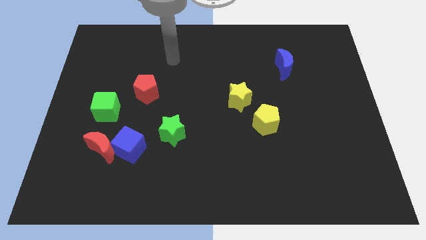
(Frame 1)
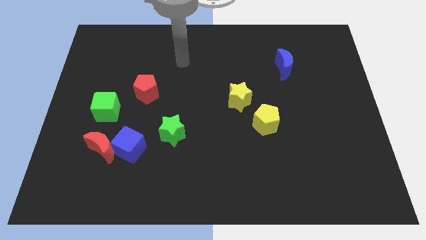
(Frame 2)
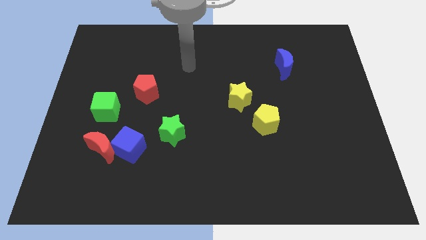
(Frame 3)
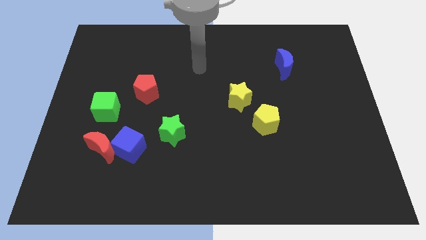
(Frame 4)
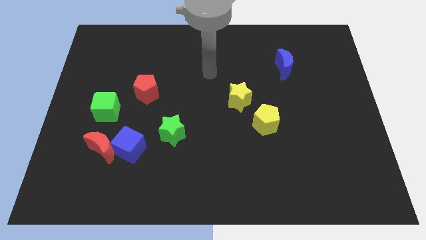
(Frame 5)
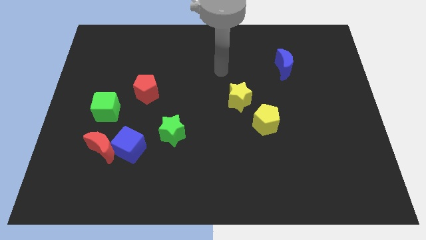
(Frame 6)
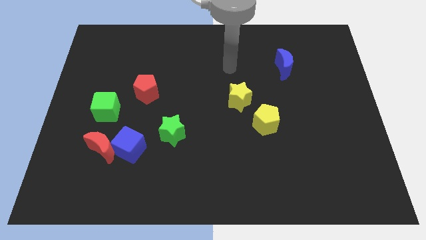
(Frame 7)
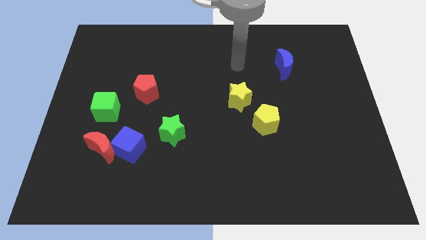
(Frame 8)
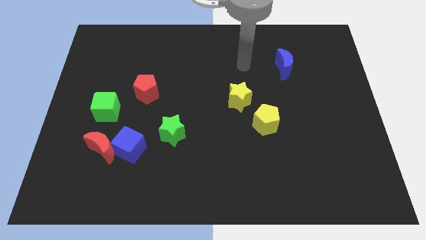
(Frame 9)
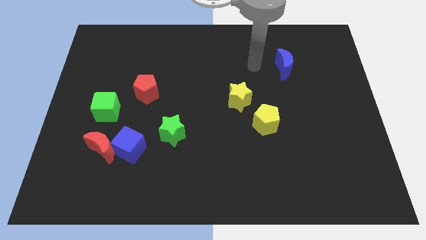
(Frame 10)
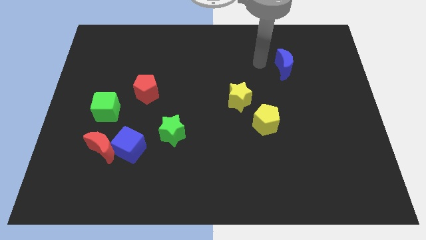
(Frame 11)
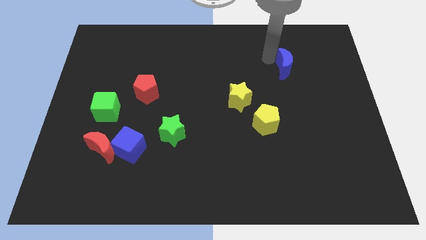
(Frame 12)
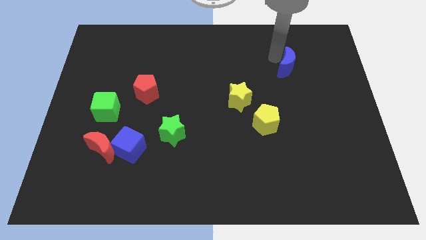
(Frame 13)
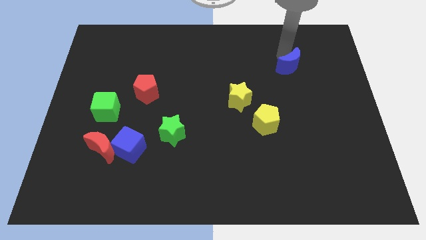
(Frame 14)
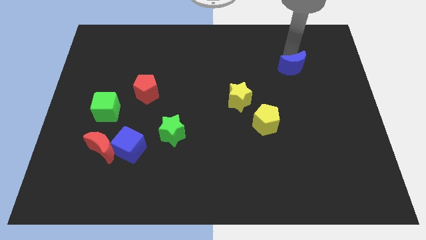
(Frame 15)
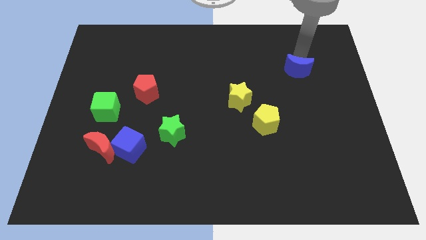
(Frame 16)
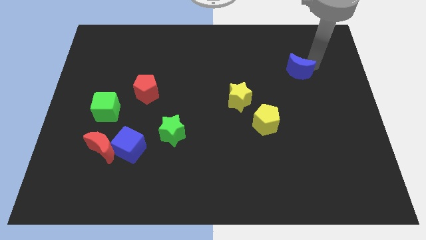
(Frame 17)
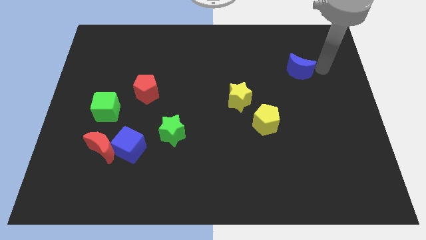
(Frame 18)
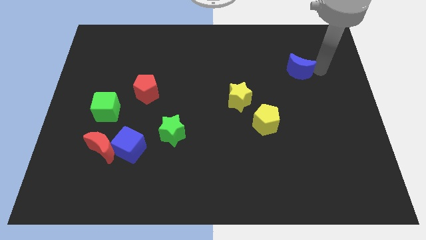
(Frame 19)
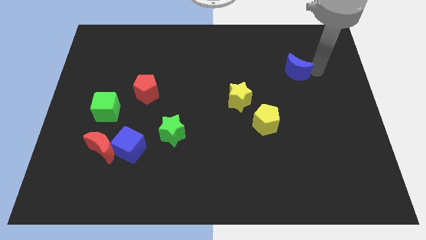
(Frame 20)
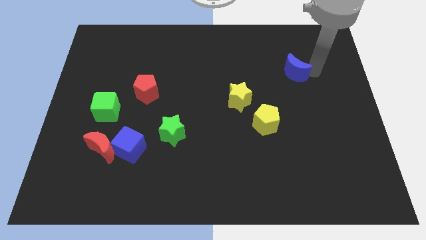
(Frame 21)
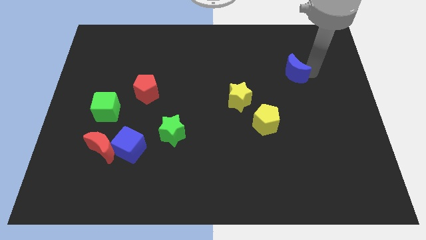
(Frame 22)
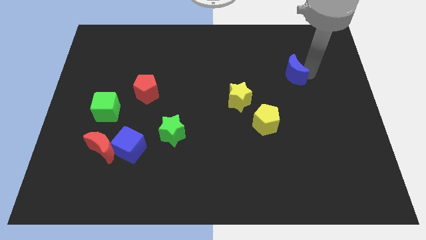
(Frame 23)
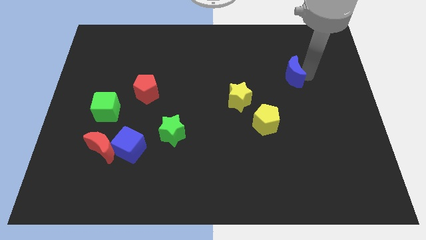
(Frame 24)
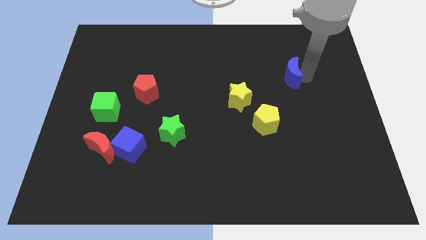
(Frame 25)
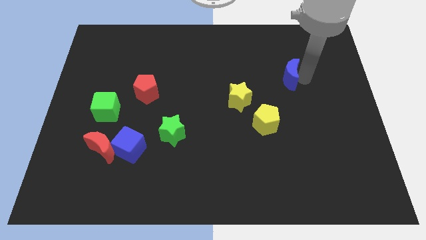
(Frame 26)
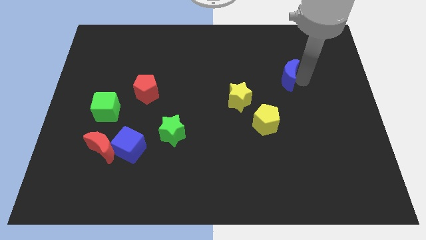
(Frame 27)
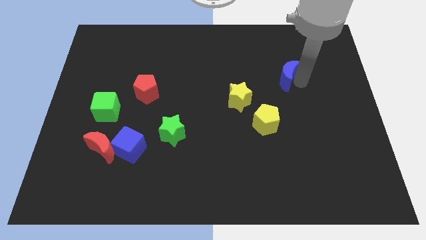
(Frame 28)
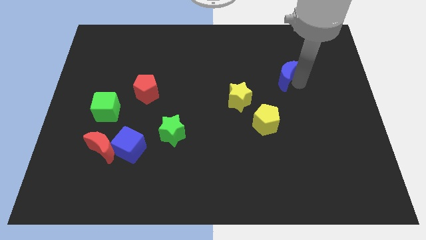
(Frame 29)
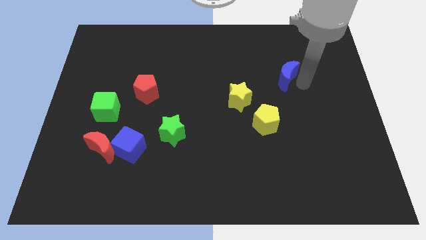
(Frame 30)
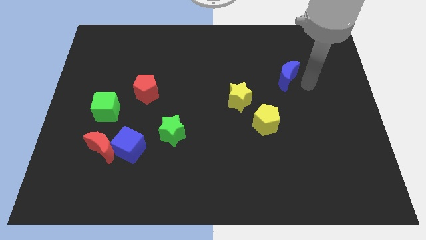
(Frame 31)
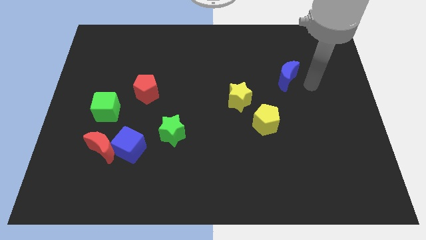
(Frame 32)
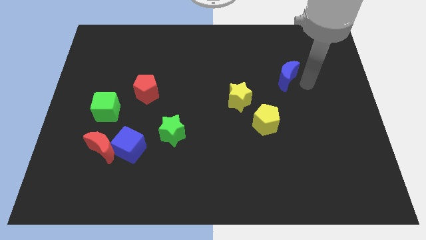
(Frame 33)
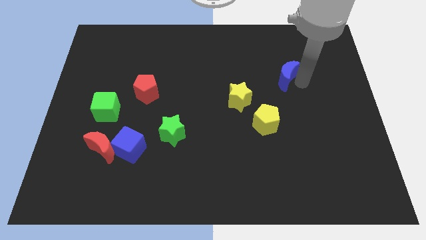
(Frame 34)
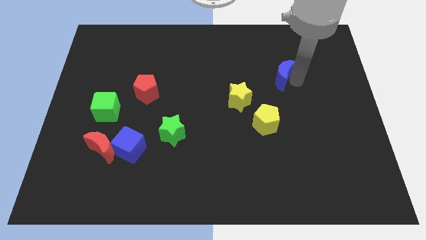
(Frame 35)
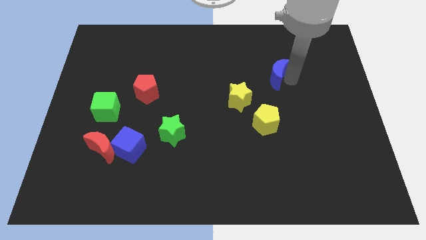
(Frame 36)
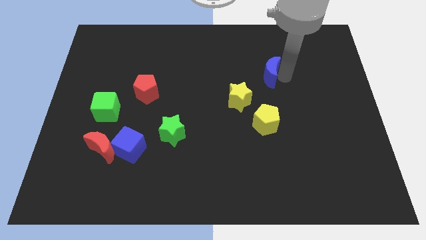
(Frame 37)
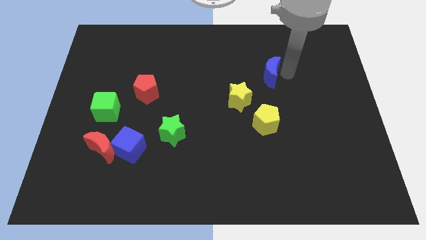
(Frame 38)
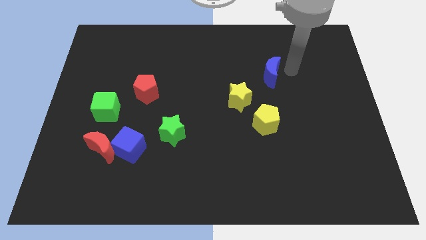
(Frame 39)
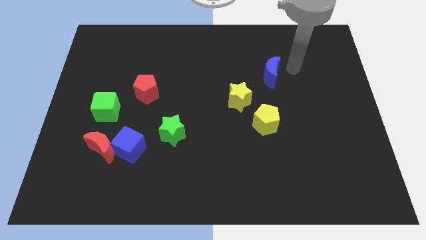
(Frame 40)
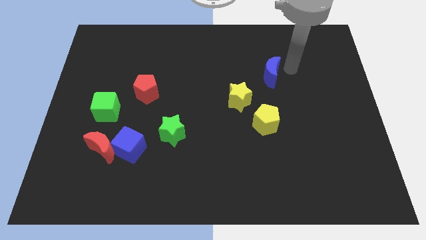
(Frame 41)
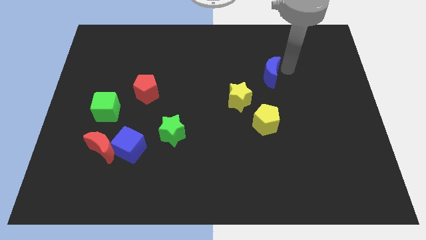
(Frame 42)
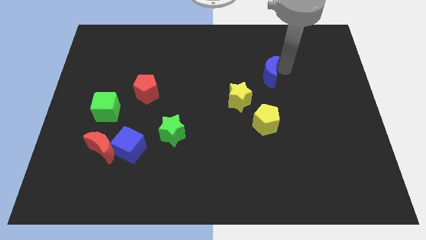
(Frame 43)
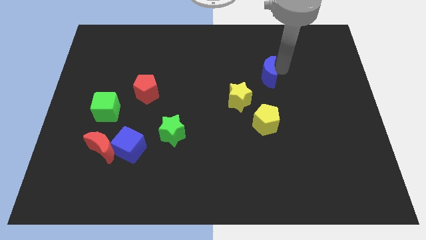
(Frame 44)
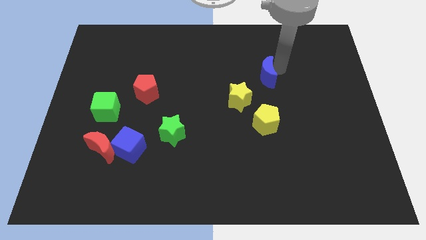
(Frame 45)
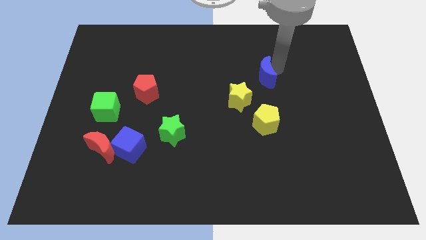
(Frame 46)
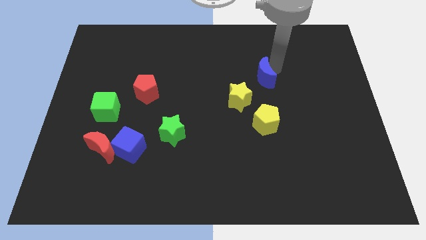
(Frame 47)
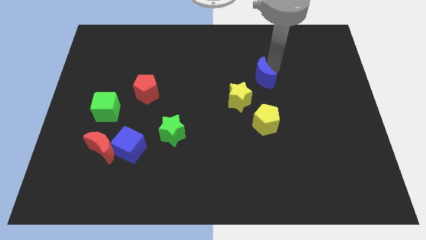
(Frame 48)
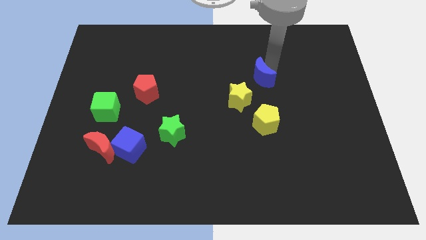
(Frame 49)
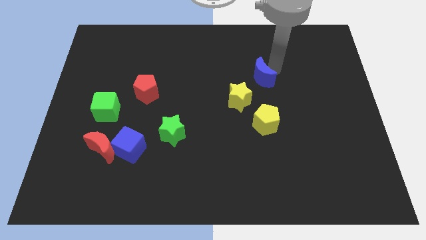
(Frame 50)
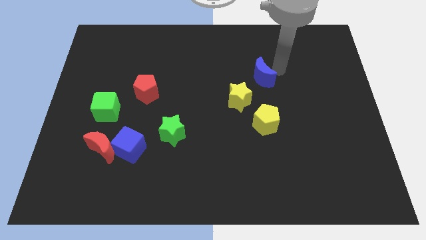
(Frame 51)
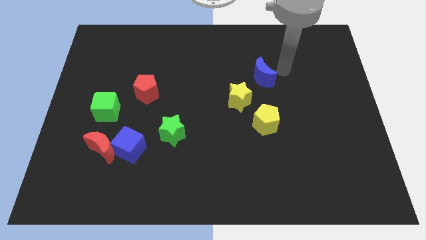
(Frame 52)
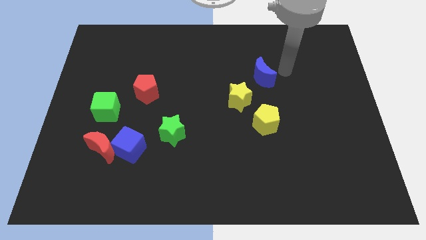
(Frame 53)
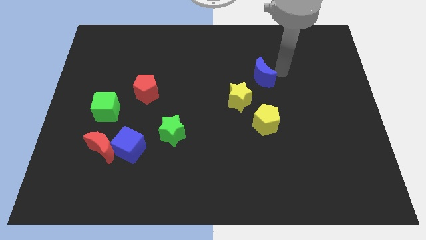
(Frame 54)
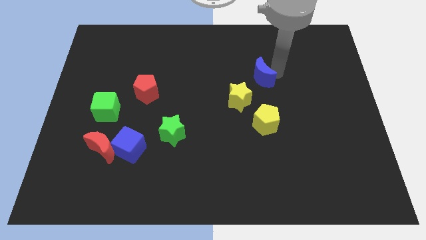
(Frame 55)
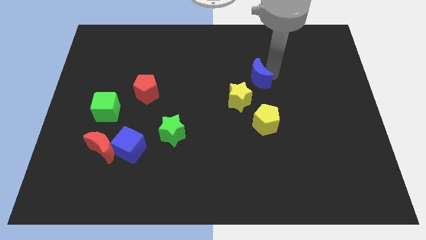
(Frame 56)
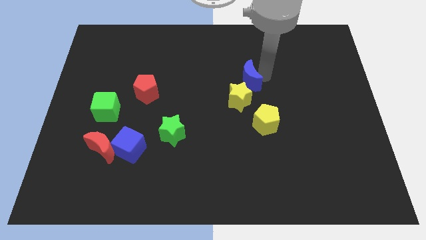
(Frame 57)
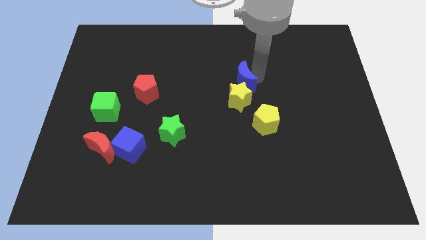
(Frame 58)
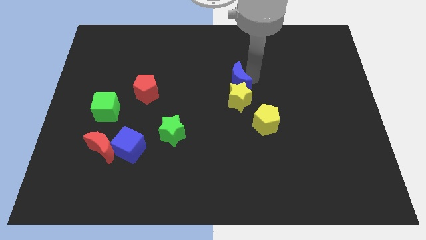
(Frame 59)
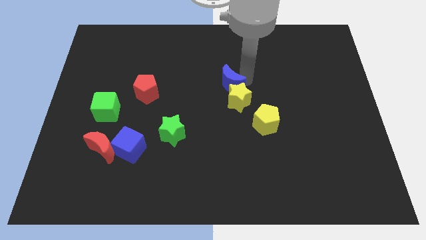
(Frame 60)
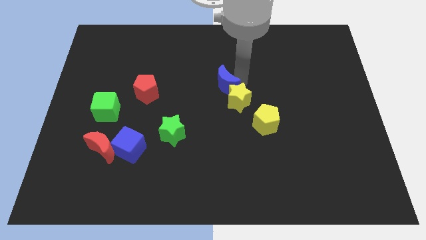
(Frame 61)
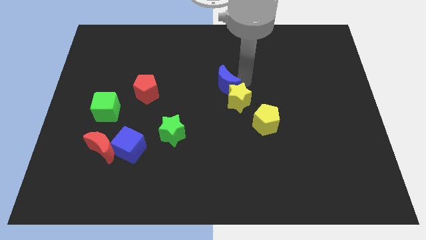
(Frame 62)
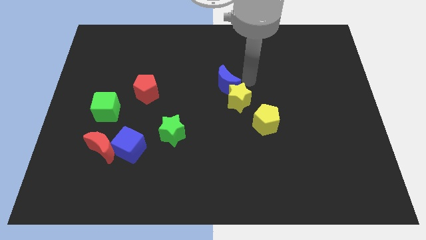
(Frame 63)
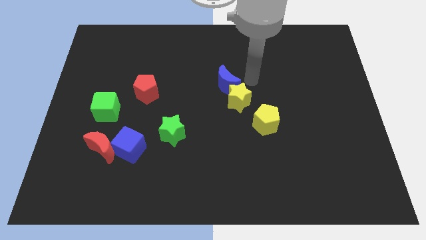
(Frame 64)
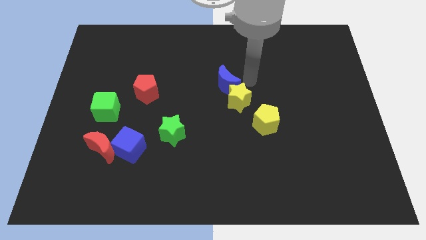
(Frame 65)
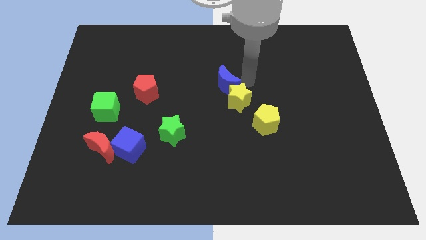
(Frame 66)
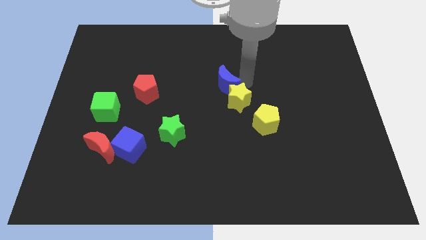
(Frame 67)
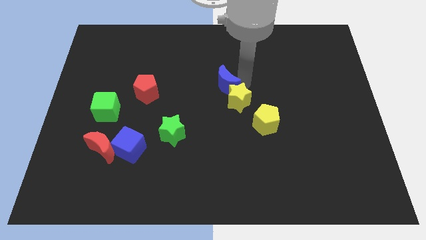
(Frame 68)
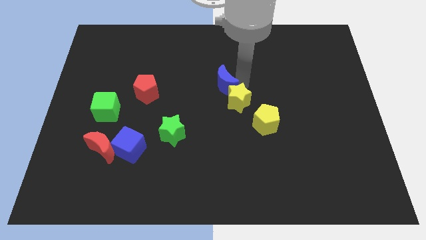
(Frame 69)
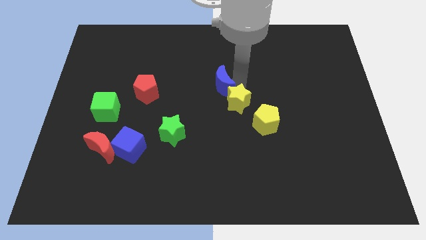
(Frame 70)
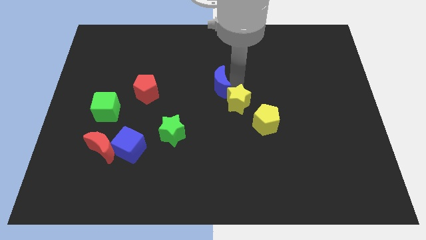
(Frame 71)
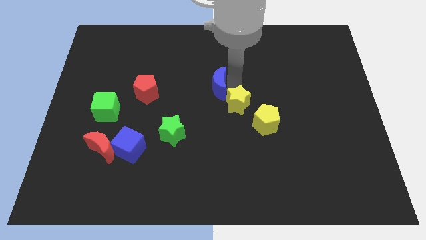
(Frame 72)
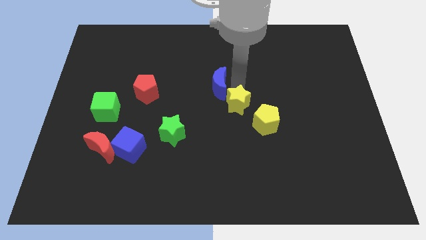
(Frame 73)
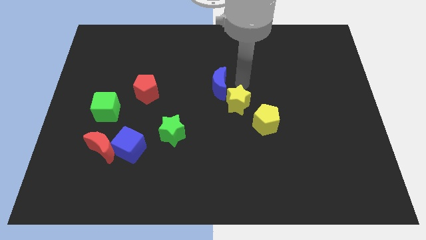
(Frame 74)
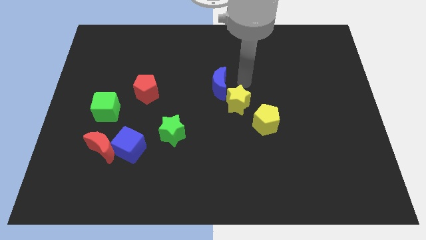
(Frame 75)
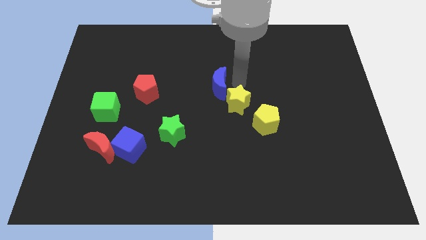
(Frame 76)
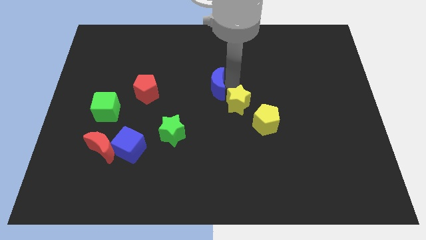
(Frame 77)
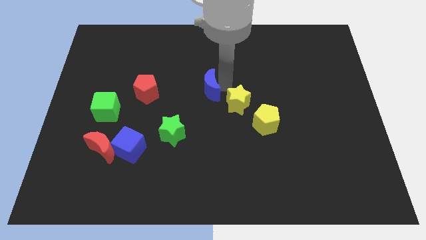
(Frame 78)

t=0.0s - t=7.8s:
put the blue moon just right of the red pentagon
